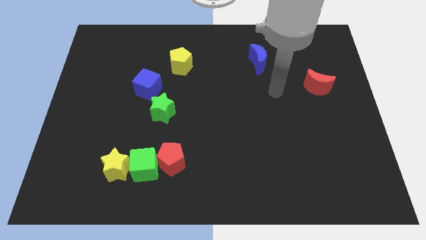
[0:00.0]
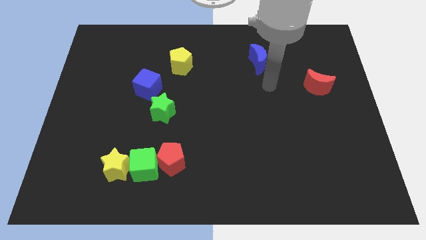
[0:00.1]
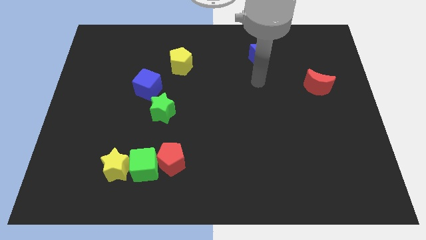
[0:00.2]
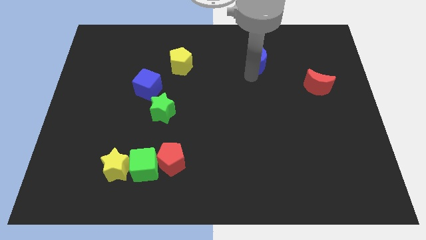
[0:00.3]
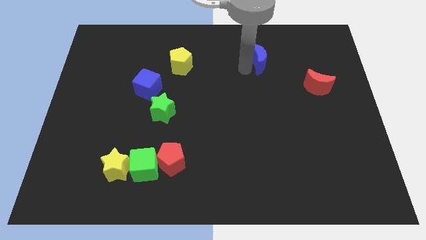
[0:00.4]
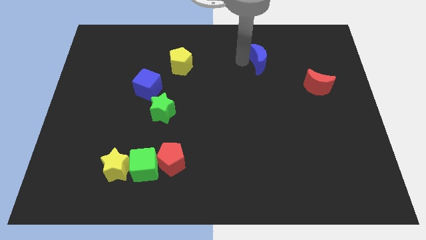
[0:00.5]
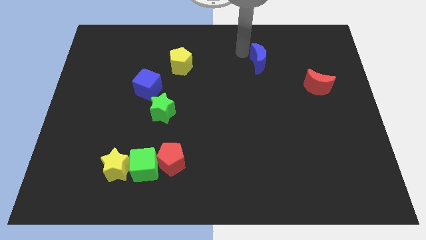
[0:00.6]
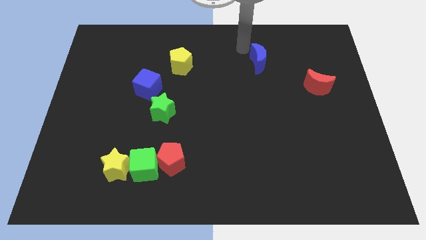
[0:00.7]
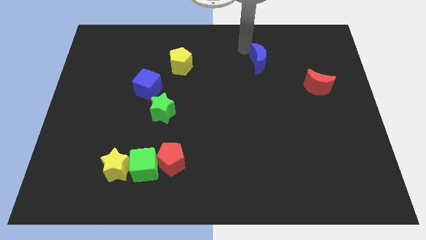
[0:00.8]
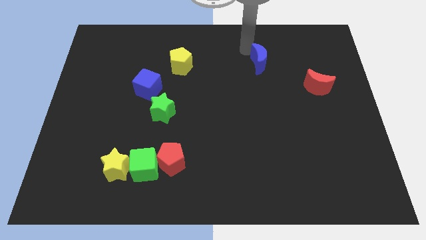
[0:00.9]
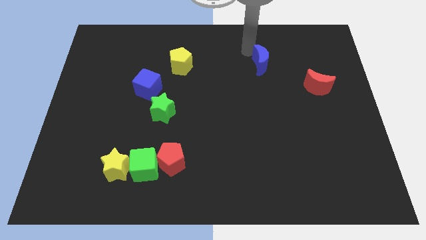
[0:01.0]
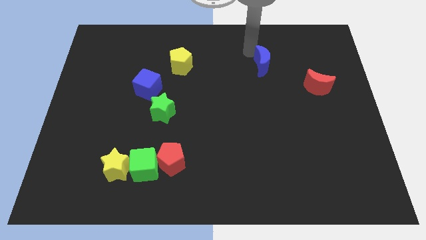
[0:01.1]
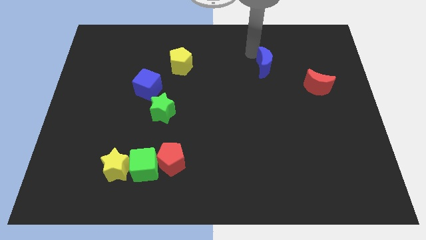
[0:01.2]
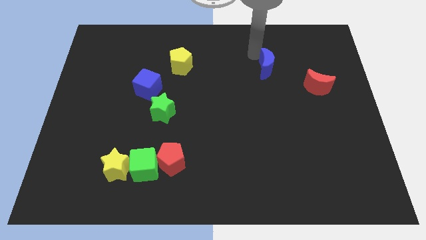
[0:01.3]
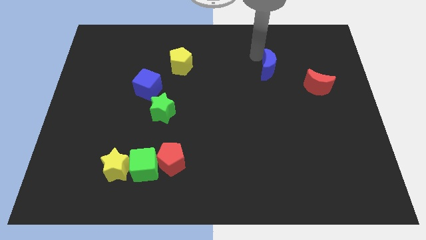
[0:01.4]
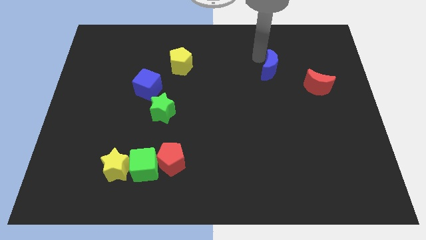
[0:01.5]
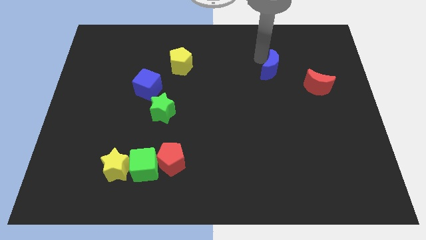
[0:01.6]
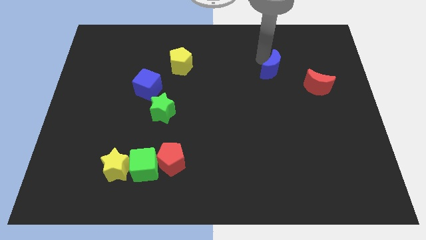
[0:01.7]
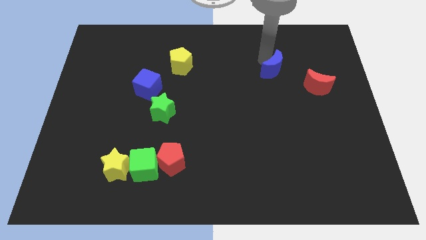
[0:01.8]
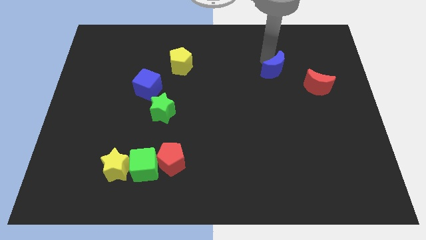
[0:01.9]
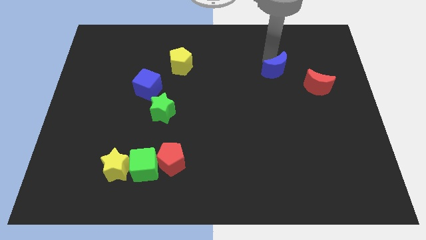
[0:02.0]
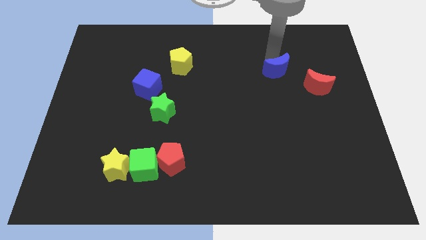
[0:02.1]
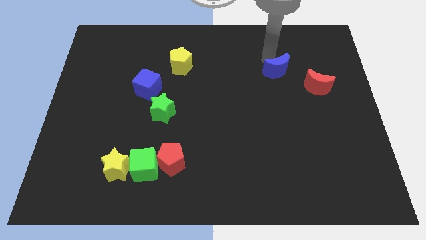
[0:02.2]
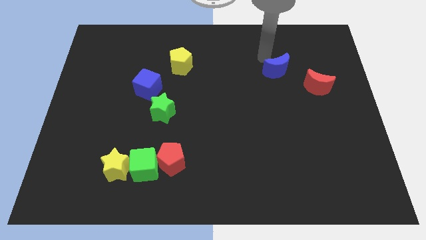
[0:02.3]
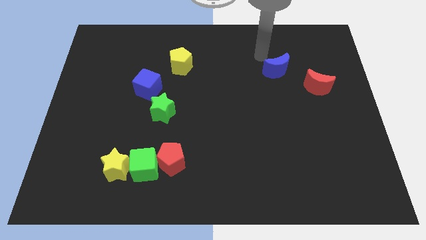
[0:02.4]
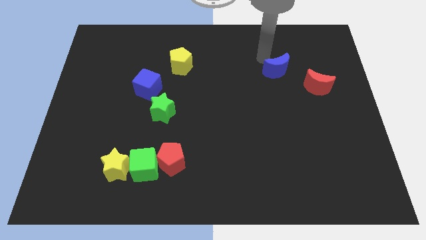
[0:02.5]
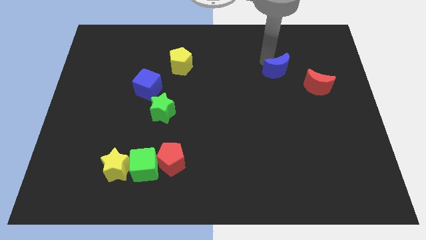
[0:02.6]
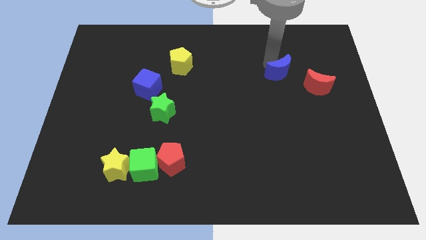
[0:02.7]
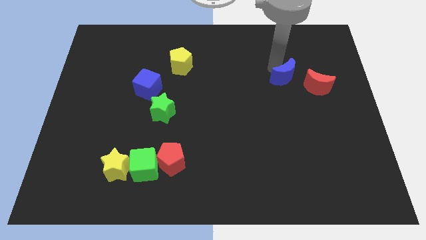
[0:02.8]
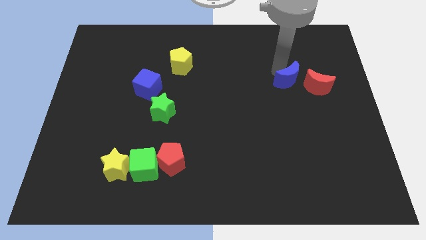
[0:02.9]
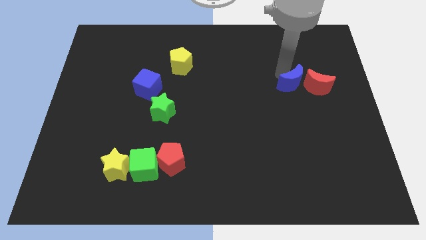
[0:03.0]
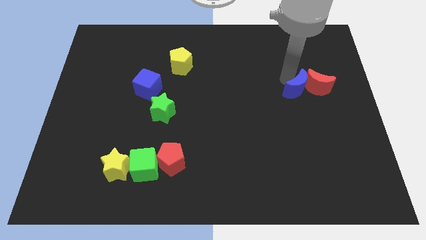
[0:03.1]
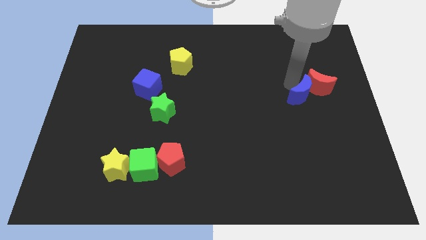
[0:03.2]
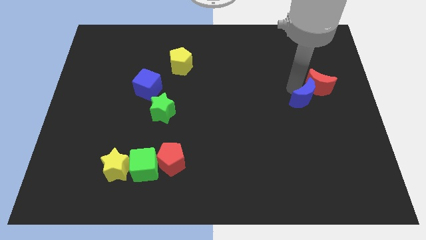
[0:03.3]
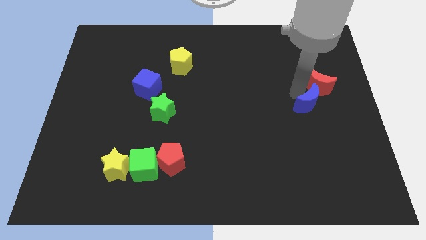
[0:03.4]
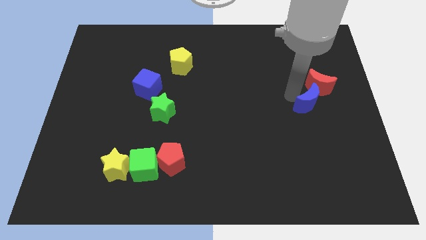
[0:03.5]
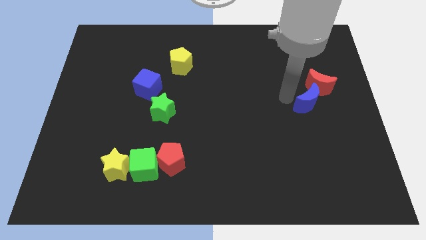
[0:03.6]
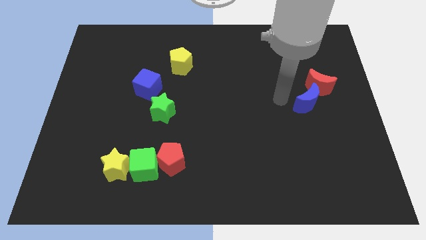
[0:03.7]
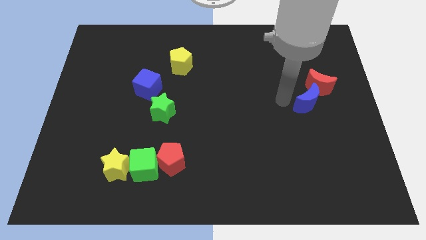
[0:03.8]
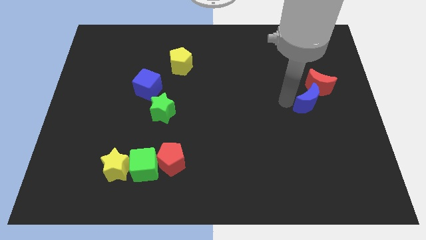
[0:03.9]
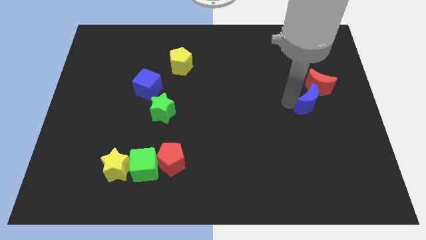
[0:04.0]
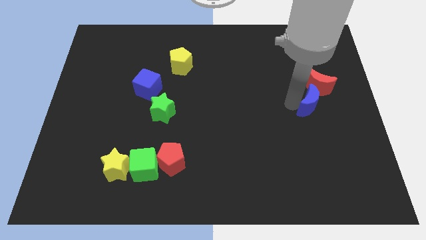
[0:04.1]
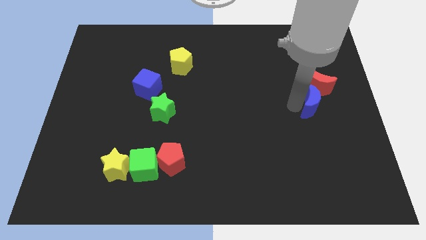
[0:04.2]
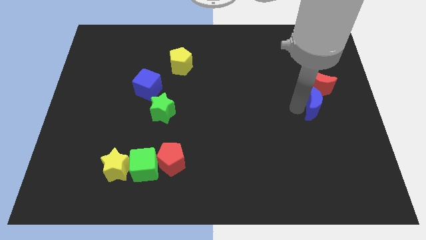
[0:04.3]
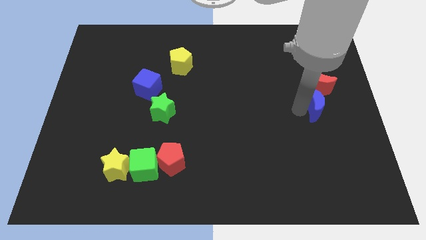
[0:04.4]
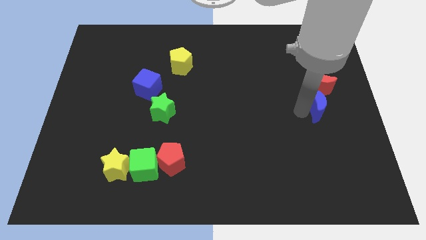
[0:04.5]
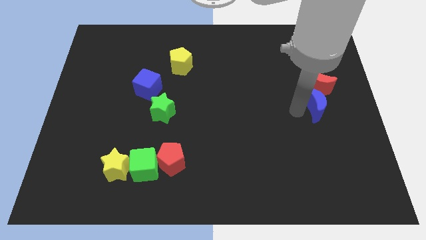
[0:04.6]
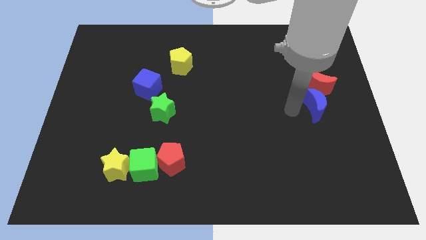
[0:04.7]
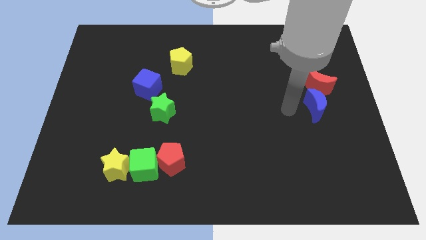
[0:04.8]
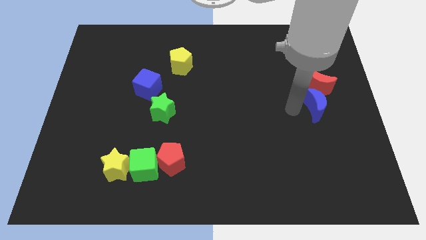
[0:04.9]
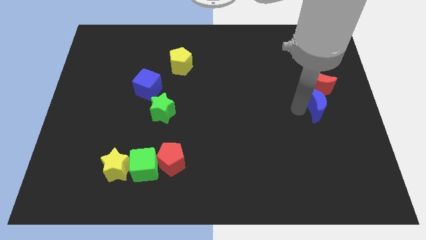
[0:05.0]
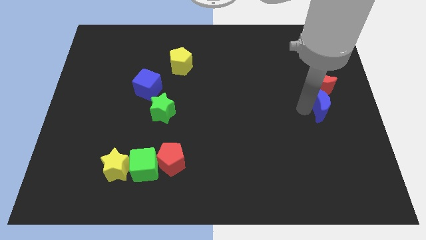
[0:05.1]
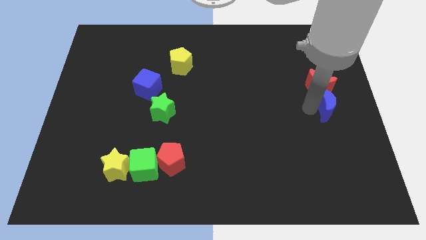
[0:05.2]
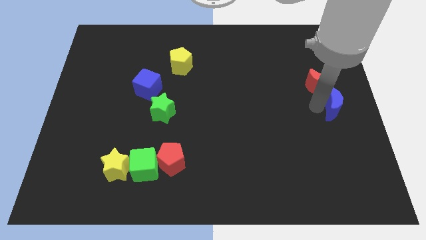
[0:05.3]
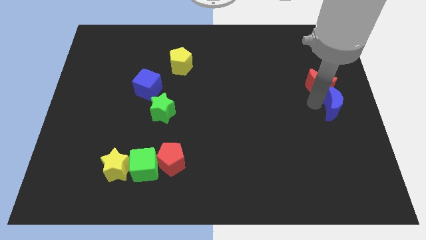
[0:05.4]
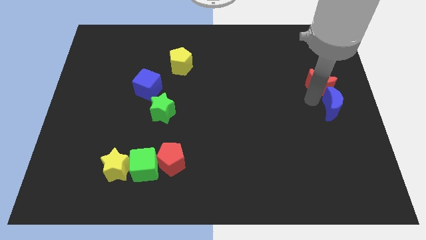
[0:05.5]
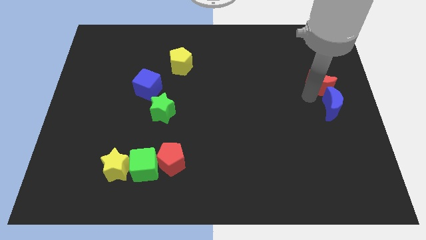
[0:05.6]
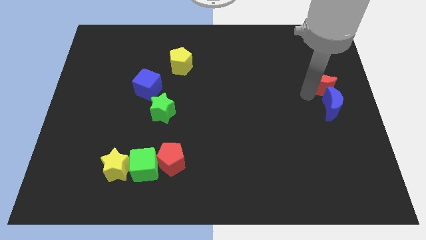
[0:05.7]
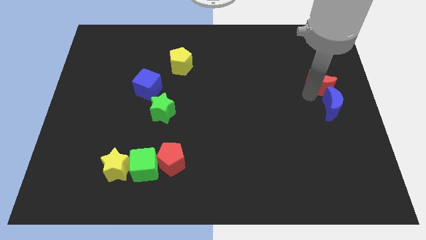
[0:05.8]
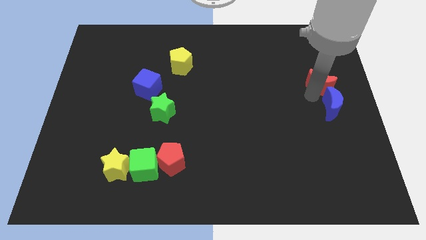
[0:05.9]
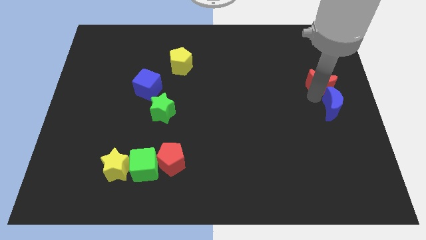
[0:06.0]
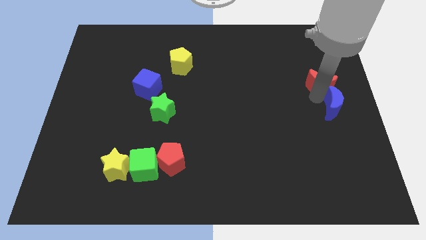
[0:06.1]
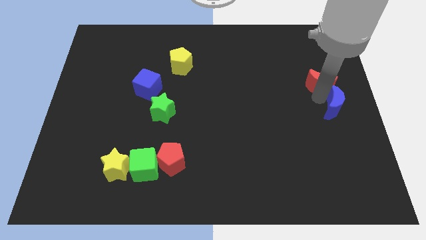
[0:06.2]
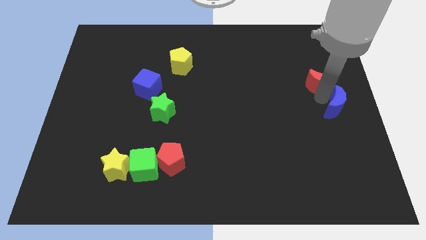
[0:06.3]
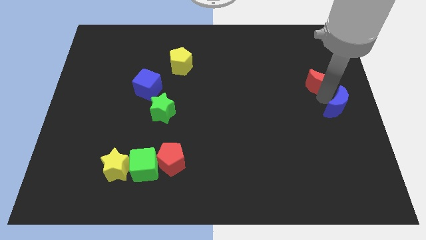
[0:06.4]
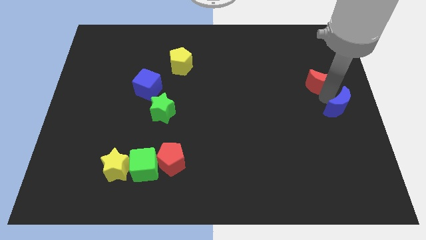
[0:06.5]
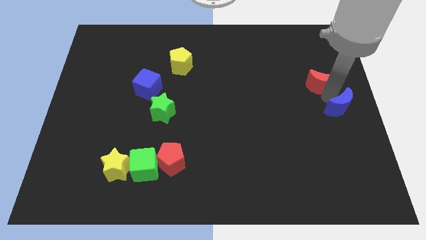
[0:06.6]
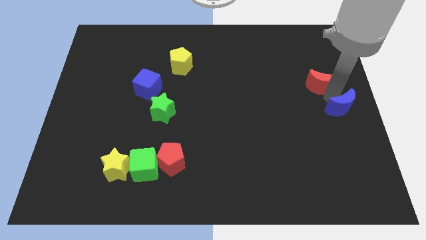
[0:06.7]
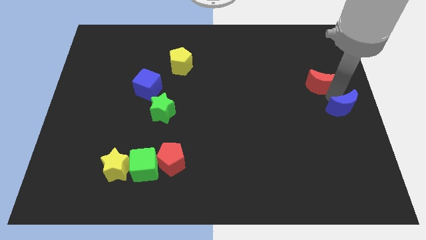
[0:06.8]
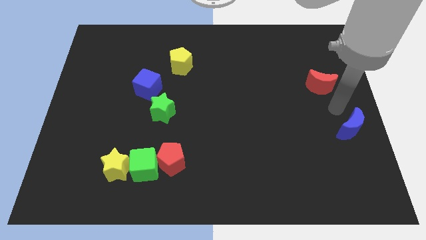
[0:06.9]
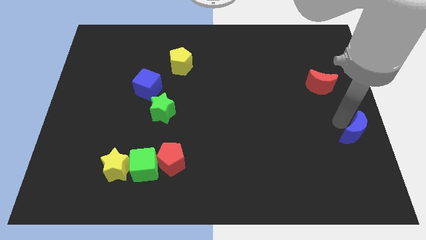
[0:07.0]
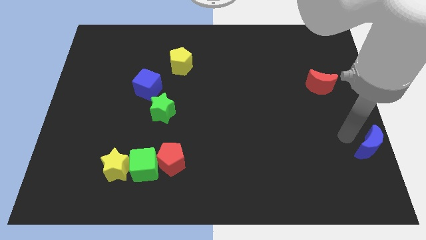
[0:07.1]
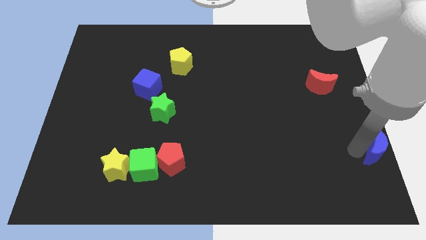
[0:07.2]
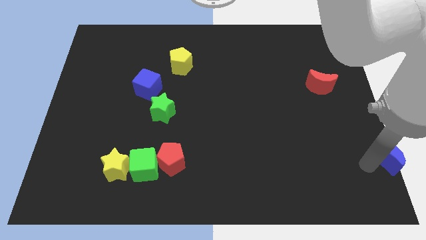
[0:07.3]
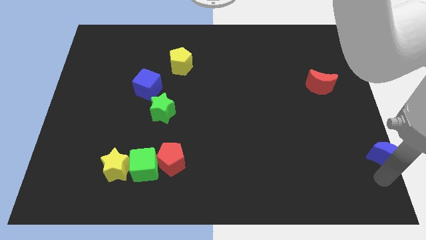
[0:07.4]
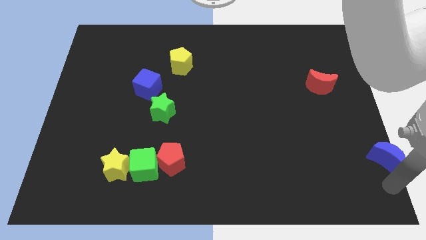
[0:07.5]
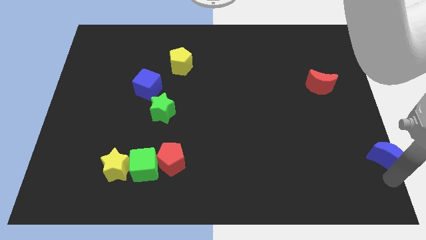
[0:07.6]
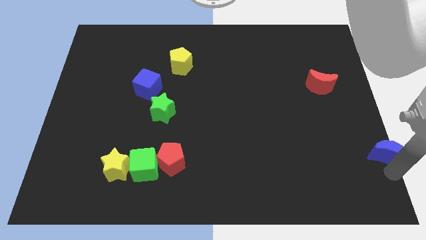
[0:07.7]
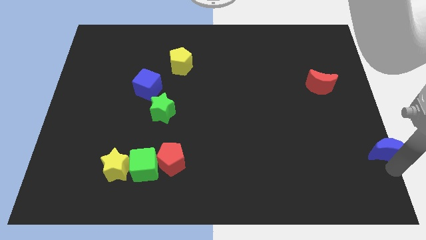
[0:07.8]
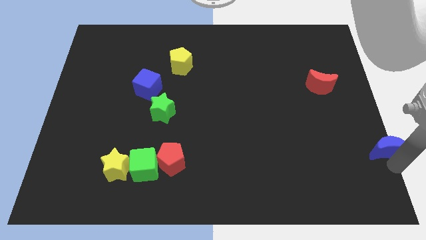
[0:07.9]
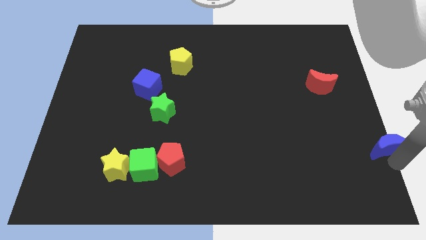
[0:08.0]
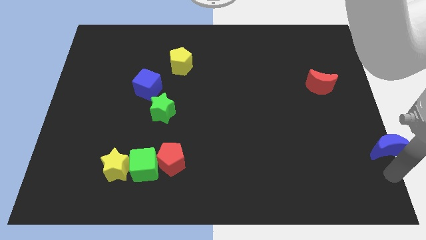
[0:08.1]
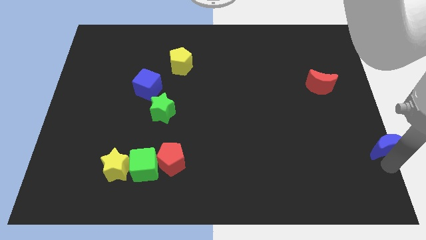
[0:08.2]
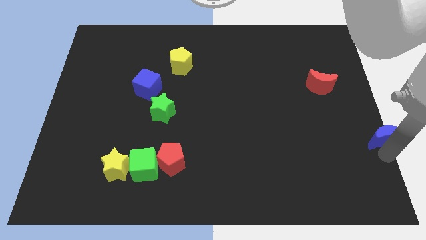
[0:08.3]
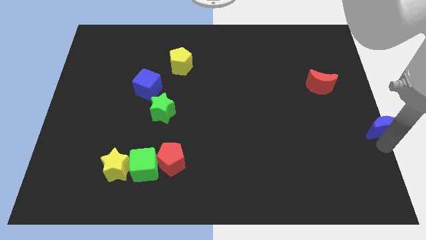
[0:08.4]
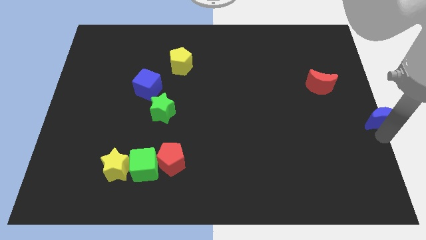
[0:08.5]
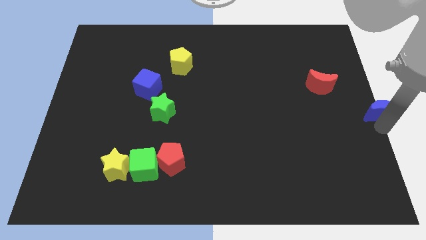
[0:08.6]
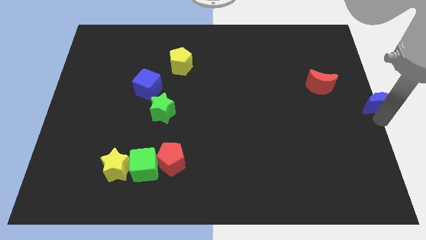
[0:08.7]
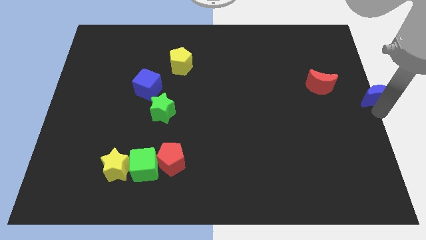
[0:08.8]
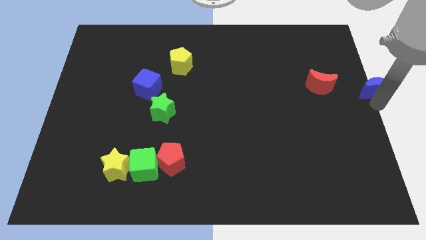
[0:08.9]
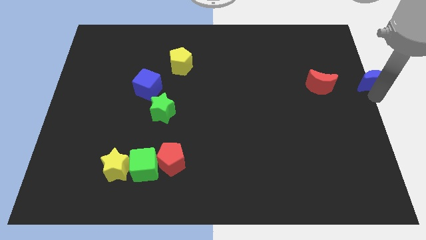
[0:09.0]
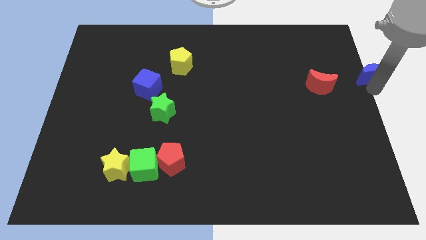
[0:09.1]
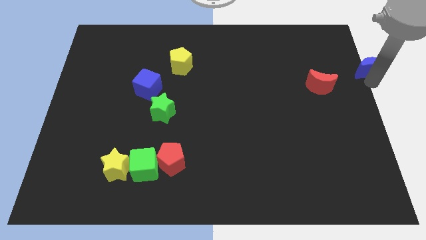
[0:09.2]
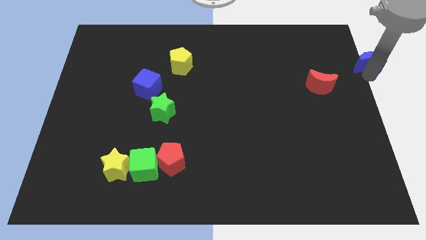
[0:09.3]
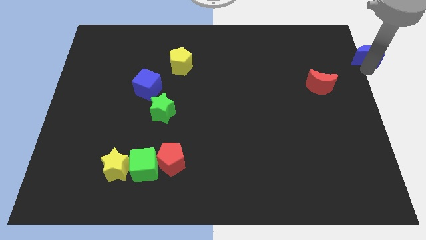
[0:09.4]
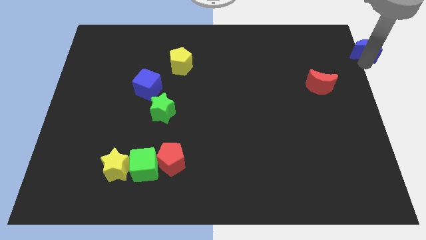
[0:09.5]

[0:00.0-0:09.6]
push the blue moon to the top right corner
